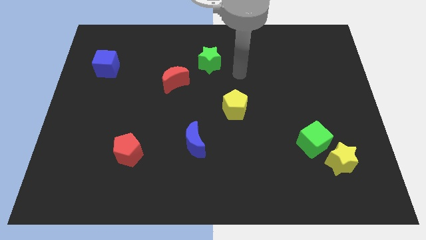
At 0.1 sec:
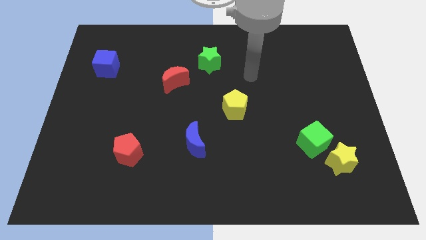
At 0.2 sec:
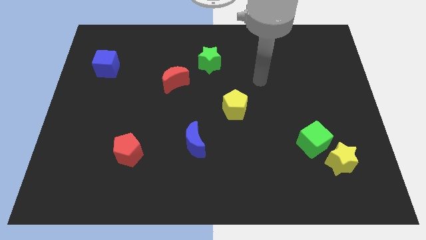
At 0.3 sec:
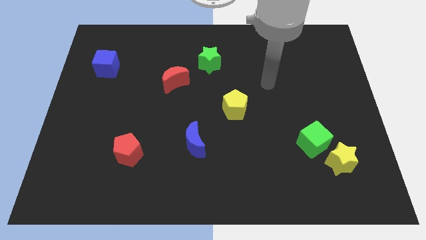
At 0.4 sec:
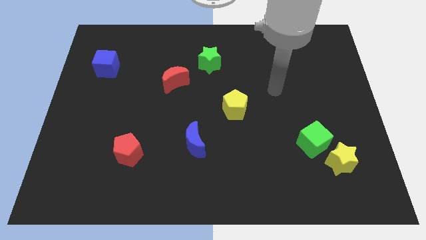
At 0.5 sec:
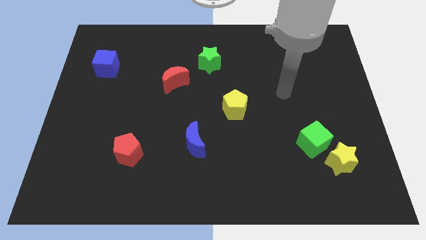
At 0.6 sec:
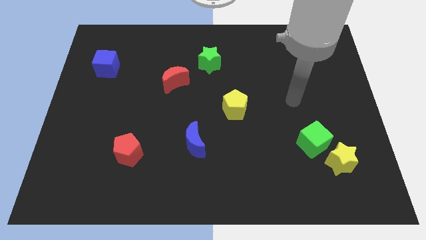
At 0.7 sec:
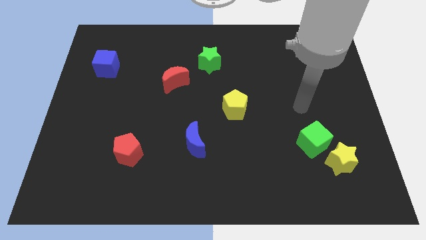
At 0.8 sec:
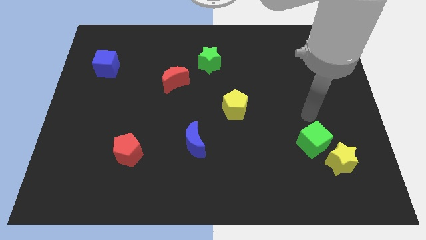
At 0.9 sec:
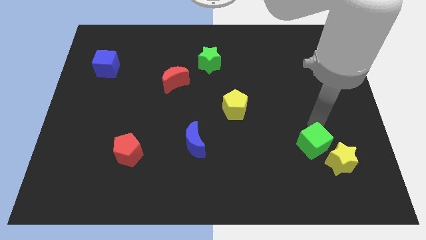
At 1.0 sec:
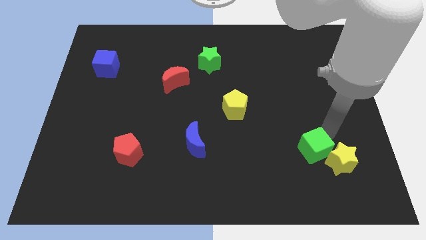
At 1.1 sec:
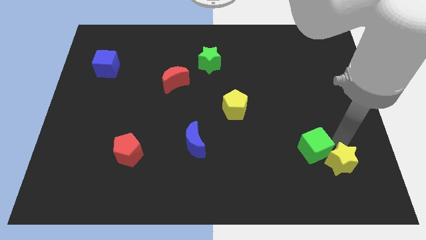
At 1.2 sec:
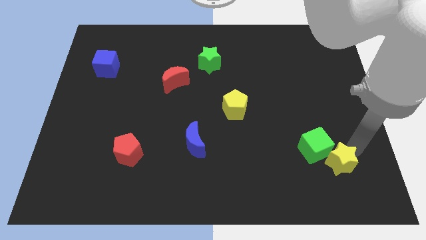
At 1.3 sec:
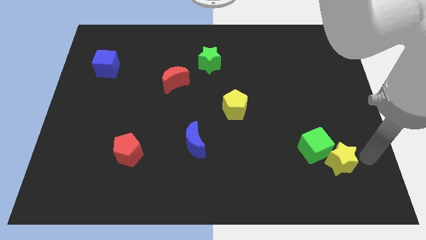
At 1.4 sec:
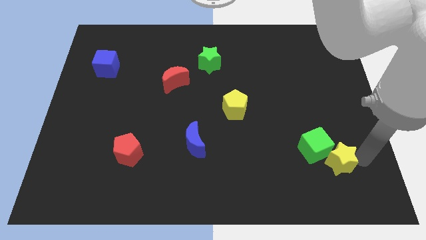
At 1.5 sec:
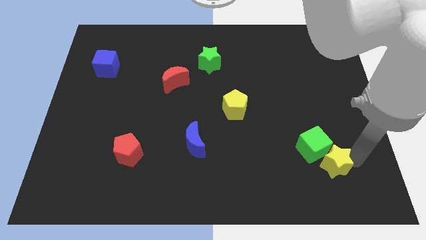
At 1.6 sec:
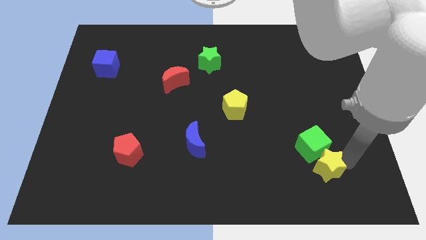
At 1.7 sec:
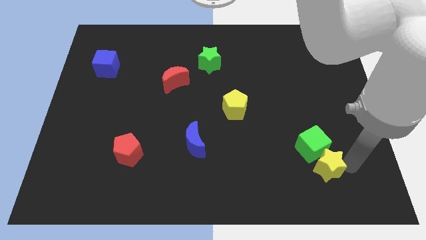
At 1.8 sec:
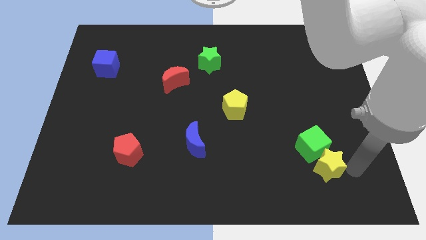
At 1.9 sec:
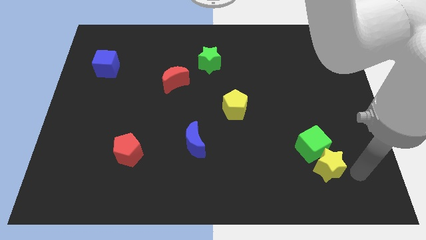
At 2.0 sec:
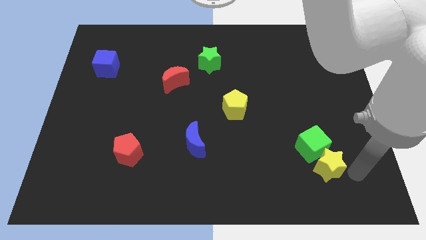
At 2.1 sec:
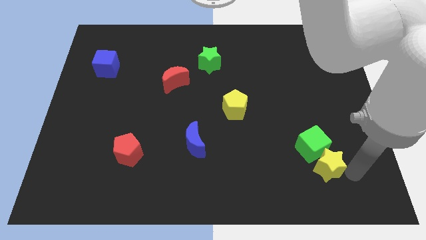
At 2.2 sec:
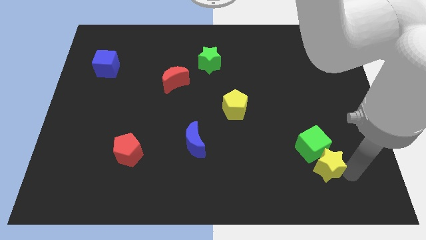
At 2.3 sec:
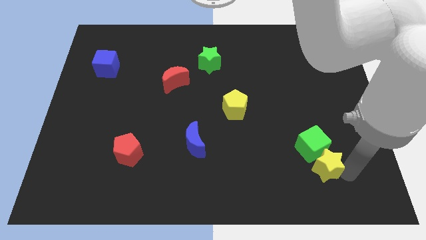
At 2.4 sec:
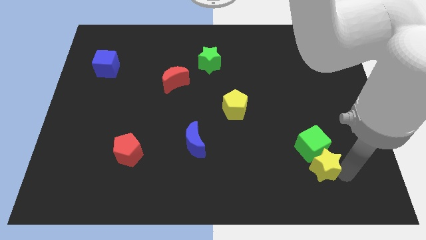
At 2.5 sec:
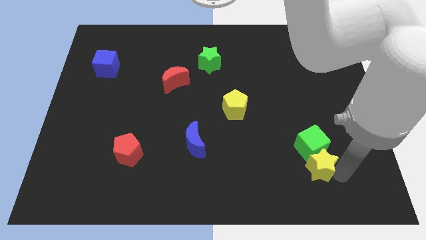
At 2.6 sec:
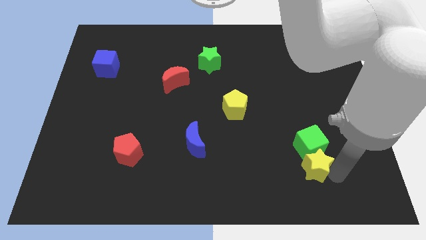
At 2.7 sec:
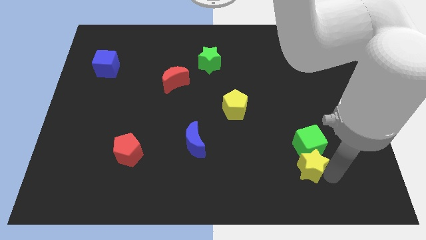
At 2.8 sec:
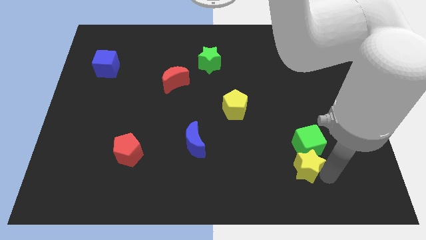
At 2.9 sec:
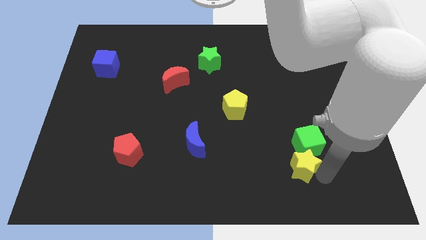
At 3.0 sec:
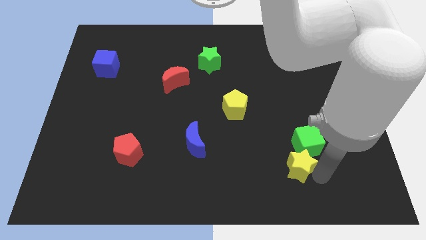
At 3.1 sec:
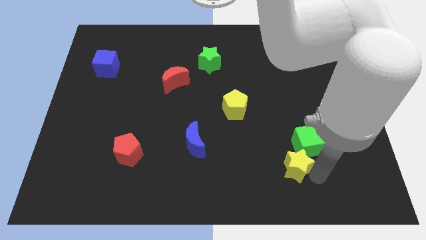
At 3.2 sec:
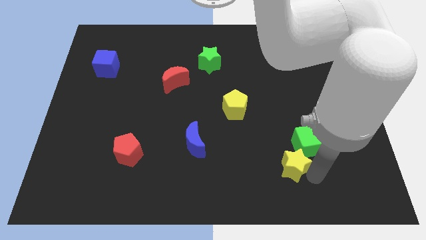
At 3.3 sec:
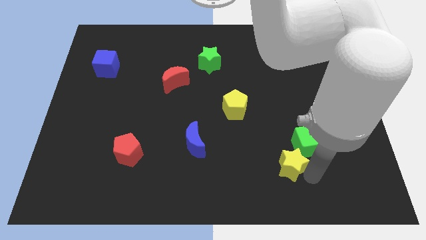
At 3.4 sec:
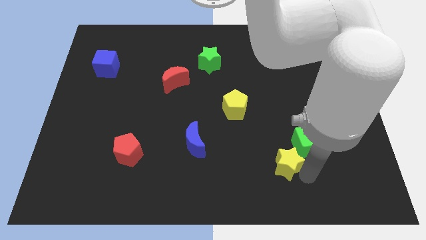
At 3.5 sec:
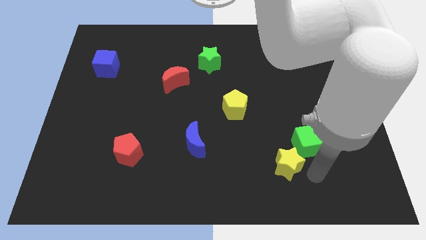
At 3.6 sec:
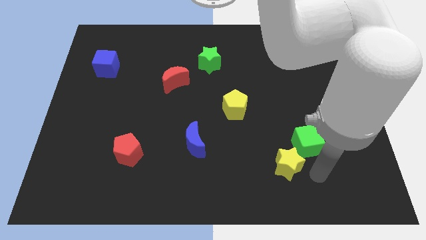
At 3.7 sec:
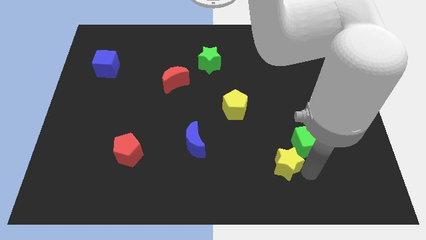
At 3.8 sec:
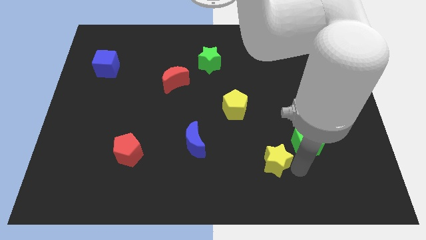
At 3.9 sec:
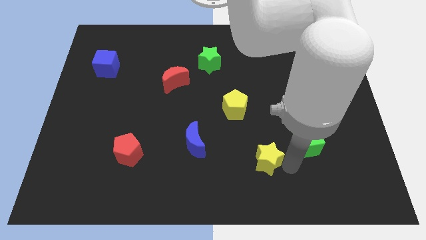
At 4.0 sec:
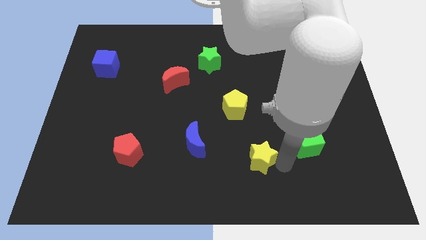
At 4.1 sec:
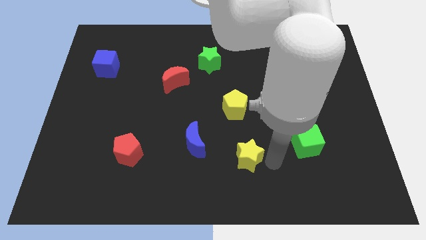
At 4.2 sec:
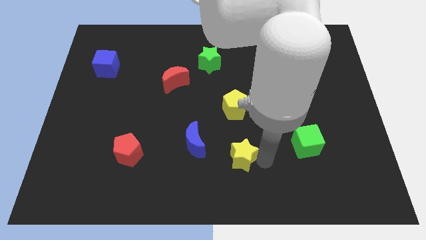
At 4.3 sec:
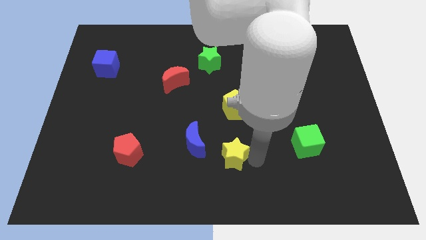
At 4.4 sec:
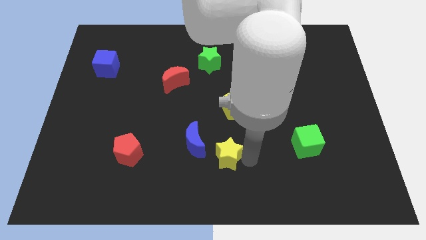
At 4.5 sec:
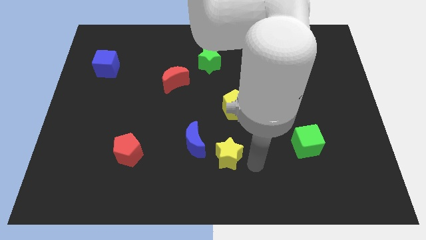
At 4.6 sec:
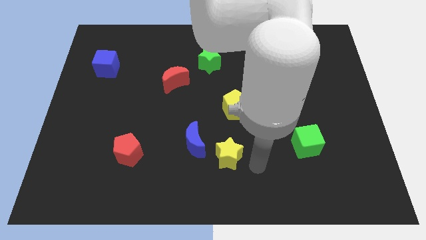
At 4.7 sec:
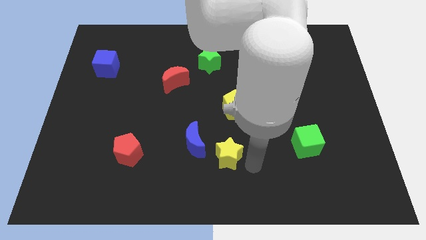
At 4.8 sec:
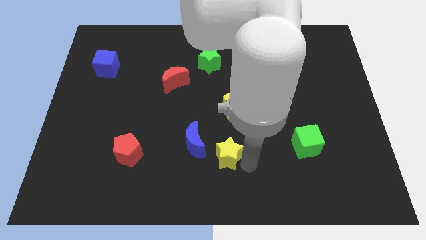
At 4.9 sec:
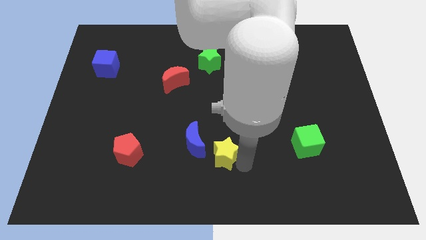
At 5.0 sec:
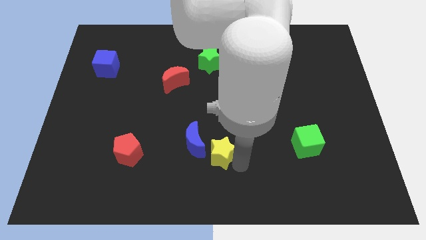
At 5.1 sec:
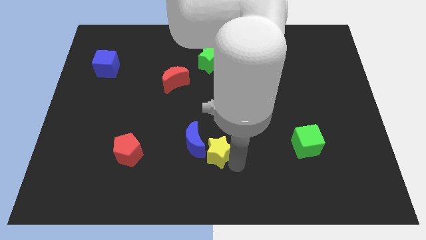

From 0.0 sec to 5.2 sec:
push the yellow star close to the blue moon

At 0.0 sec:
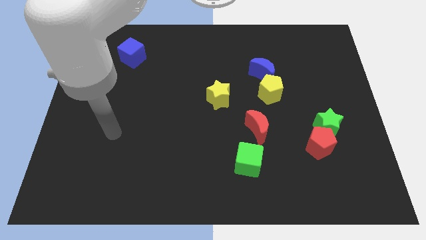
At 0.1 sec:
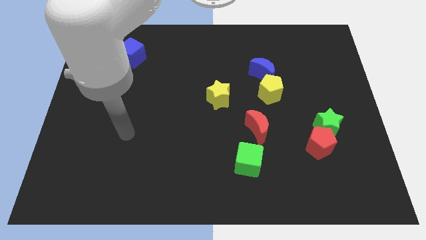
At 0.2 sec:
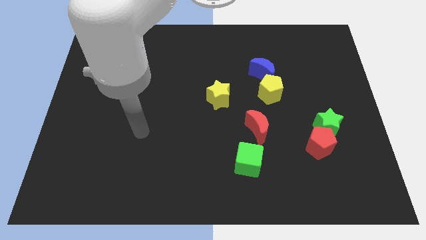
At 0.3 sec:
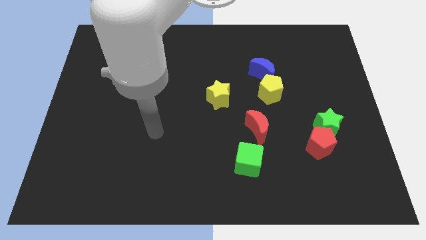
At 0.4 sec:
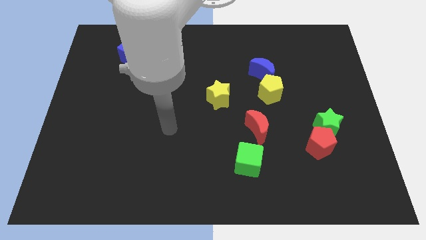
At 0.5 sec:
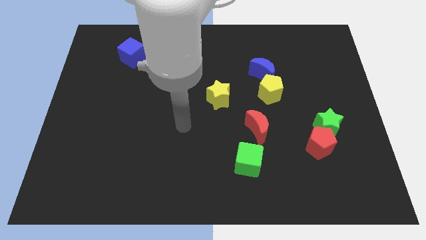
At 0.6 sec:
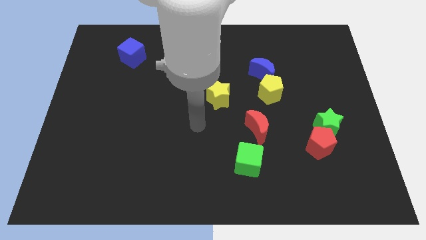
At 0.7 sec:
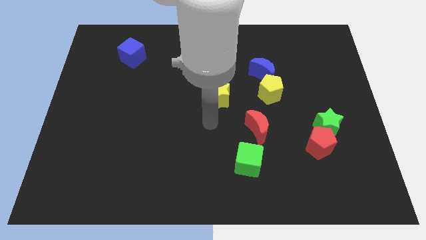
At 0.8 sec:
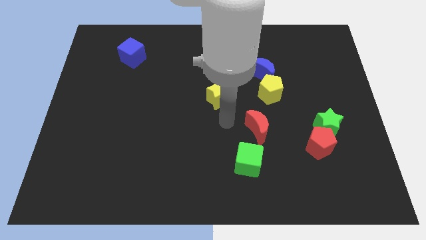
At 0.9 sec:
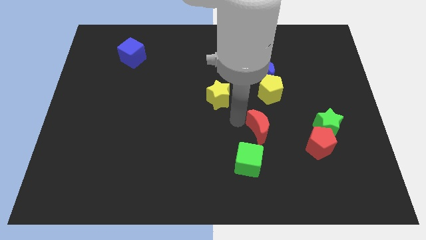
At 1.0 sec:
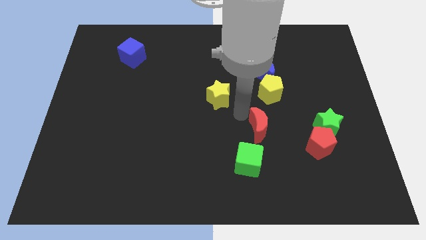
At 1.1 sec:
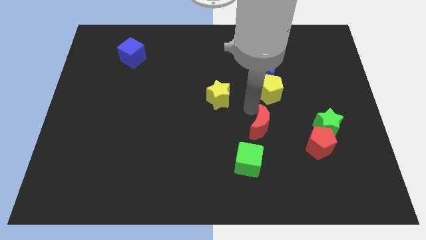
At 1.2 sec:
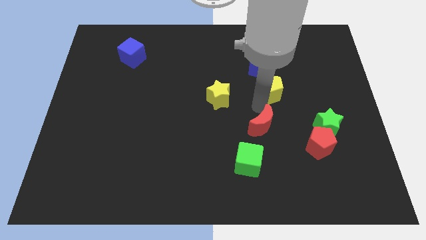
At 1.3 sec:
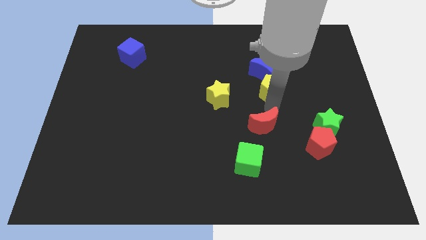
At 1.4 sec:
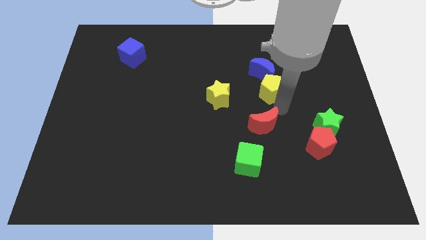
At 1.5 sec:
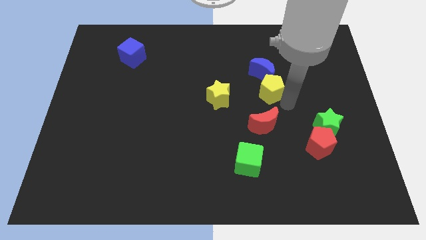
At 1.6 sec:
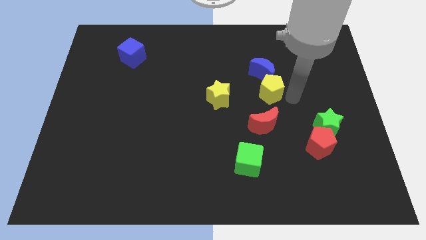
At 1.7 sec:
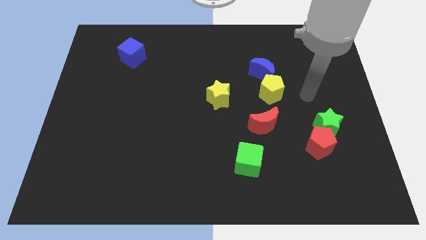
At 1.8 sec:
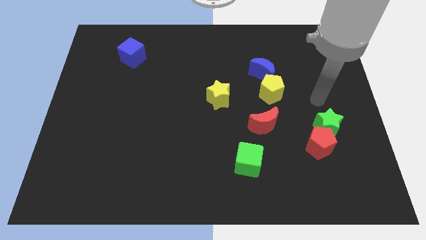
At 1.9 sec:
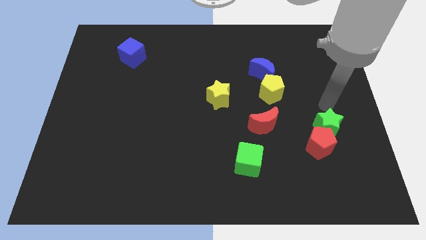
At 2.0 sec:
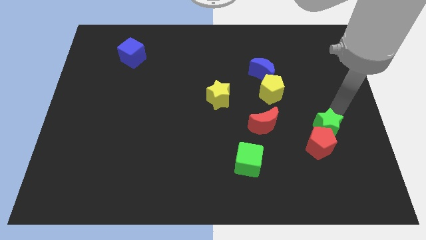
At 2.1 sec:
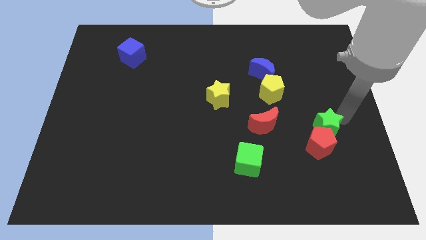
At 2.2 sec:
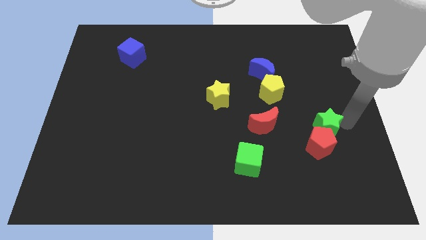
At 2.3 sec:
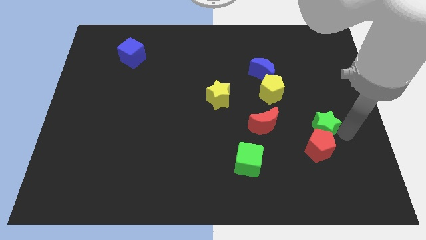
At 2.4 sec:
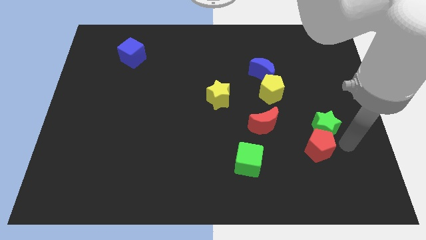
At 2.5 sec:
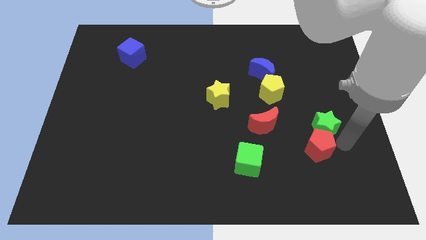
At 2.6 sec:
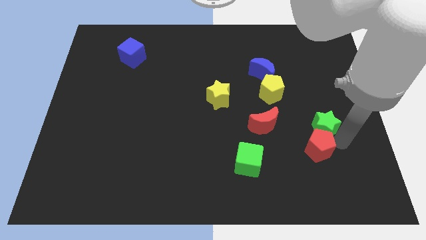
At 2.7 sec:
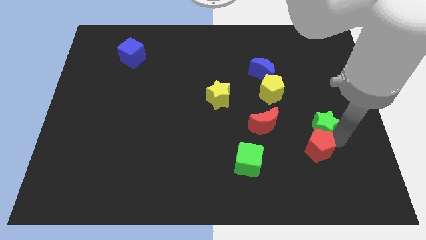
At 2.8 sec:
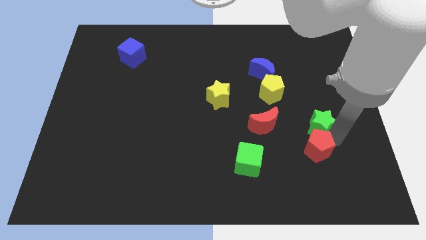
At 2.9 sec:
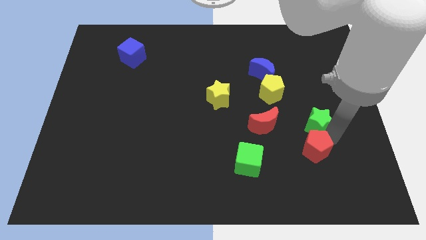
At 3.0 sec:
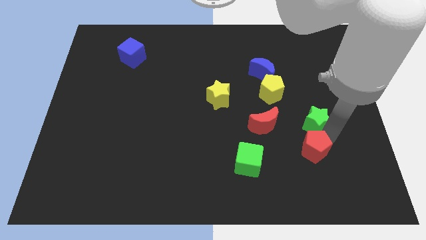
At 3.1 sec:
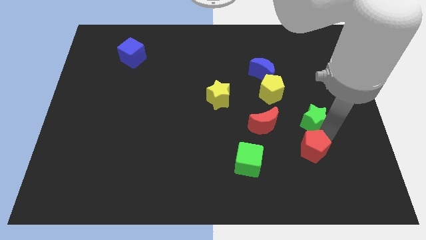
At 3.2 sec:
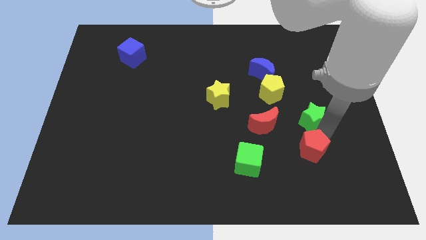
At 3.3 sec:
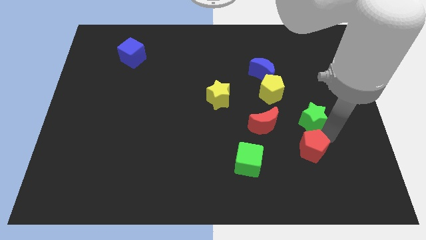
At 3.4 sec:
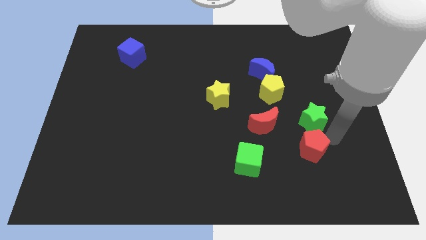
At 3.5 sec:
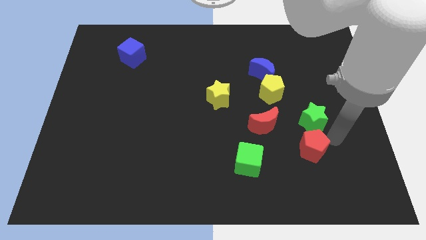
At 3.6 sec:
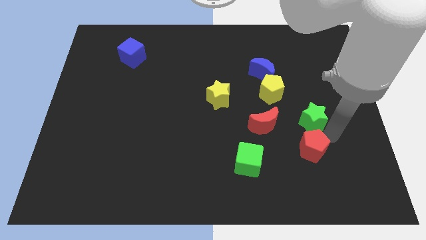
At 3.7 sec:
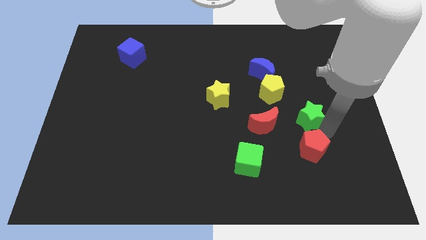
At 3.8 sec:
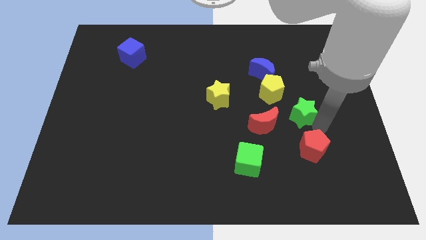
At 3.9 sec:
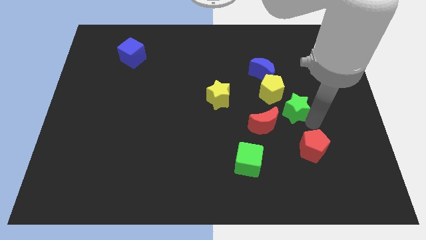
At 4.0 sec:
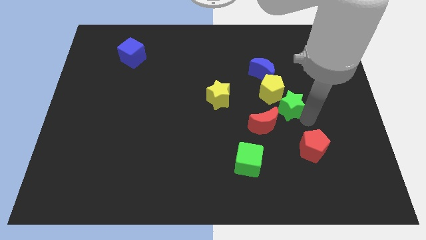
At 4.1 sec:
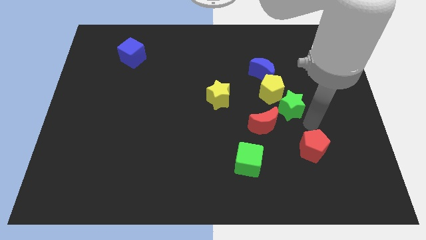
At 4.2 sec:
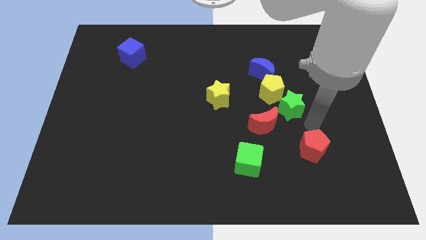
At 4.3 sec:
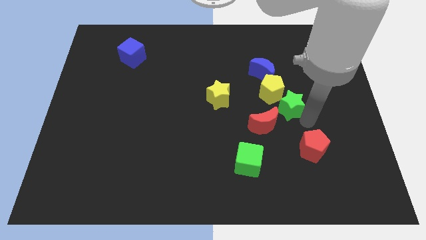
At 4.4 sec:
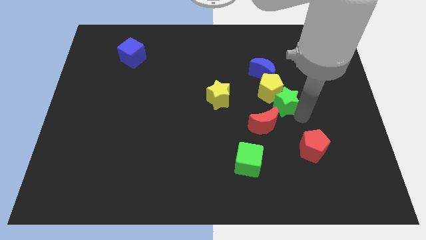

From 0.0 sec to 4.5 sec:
push the green star close to the yellow pentagon
